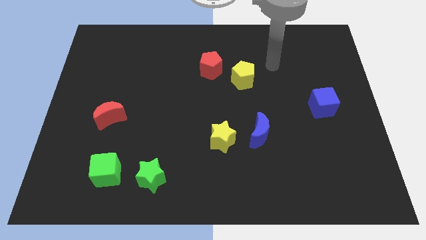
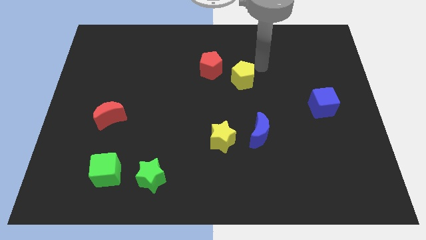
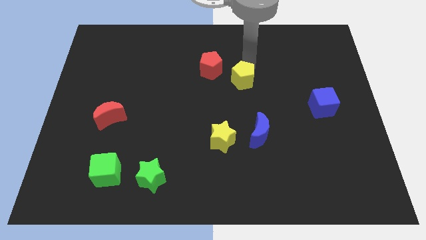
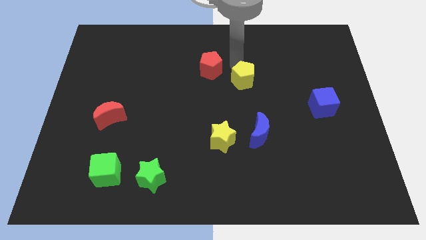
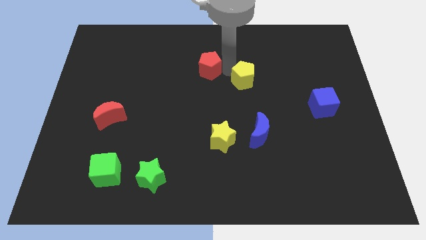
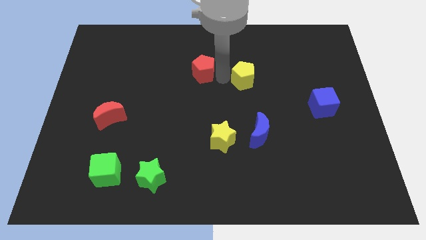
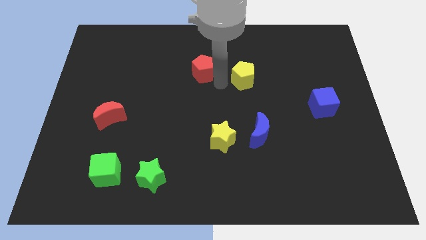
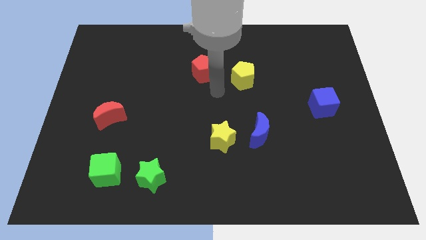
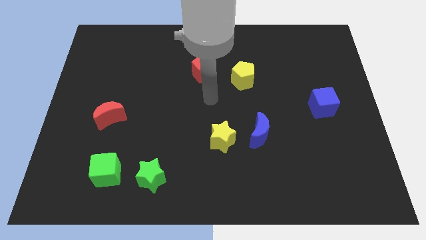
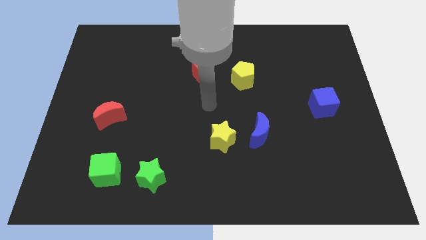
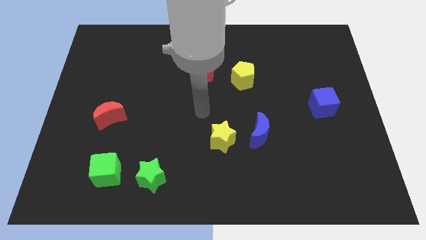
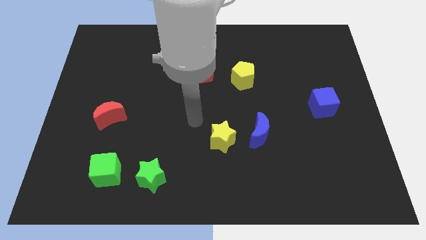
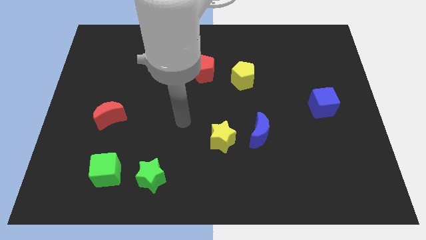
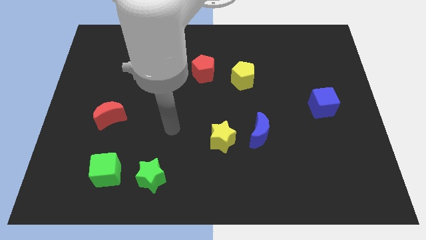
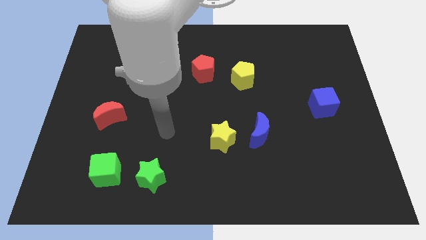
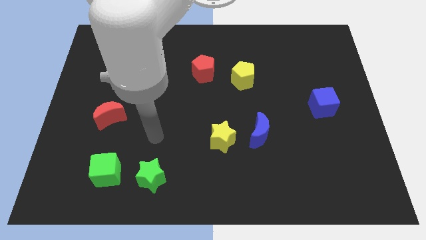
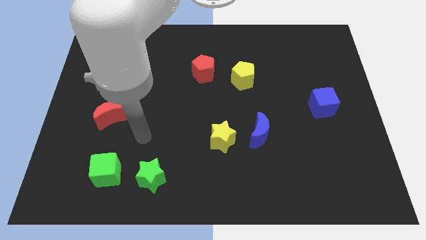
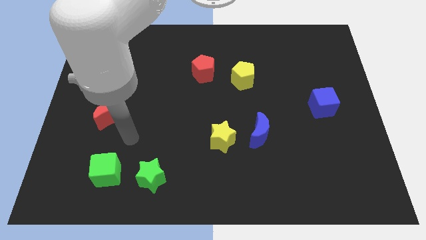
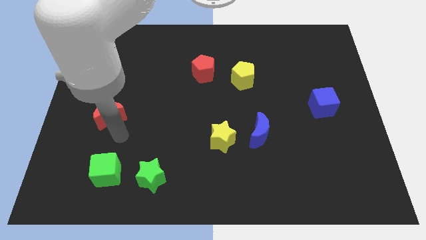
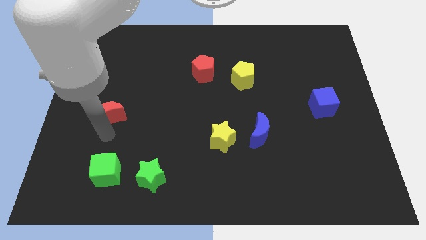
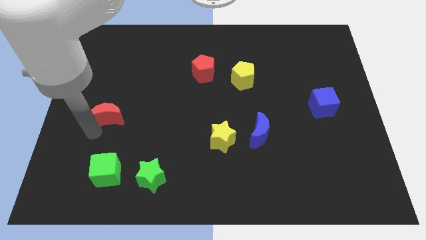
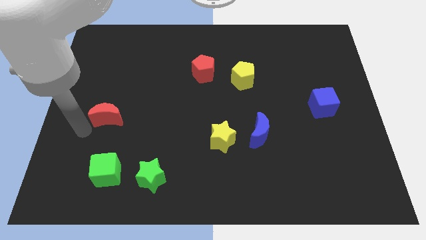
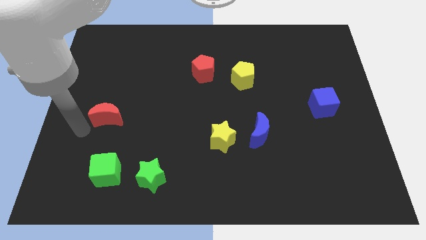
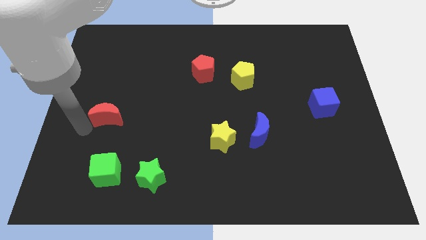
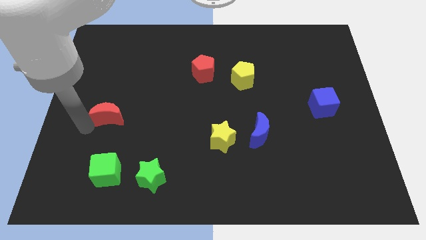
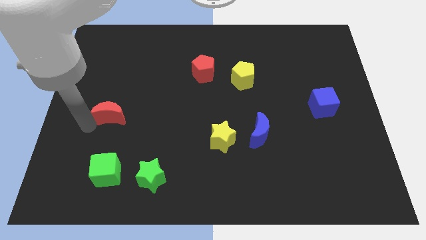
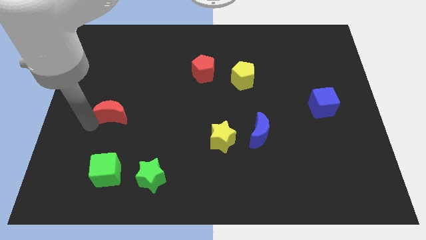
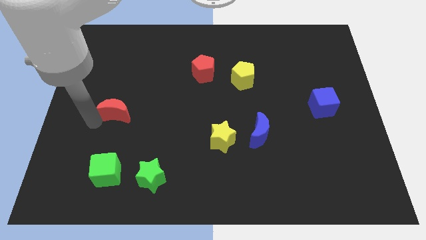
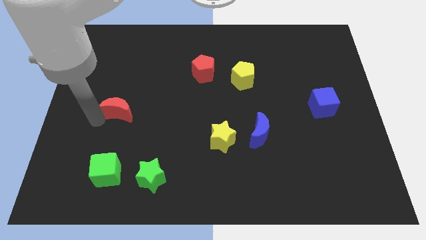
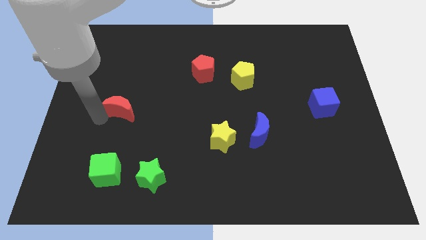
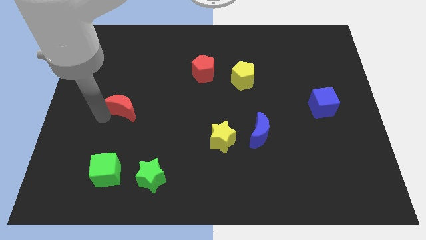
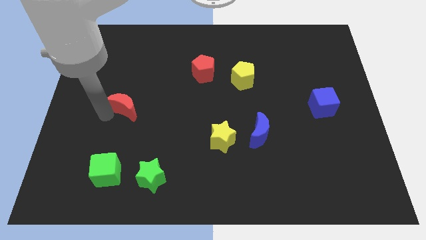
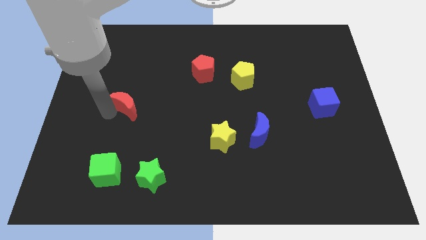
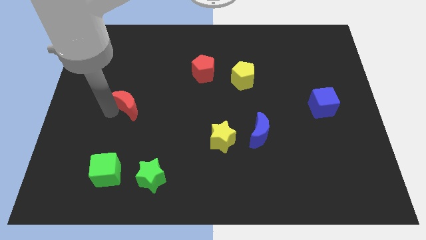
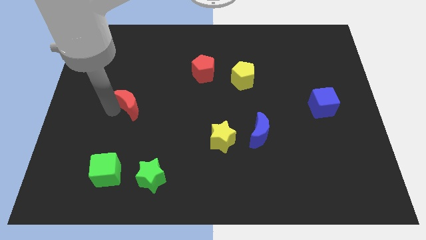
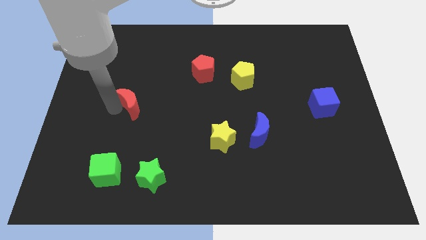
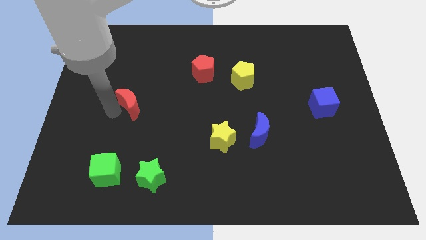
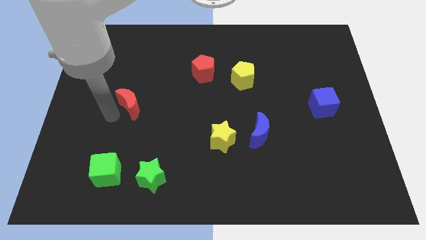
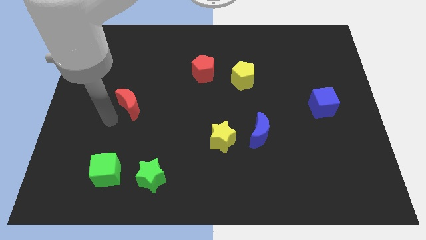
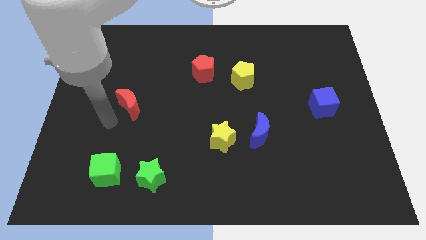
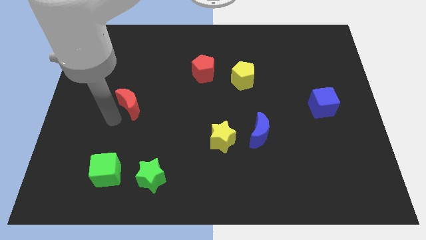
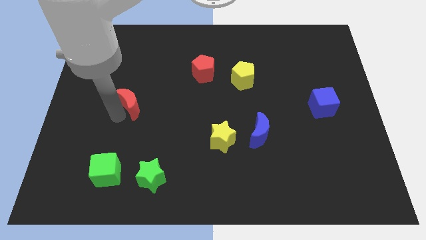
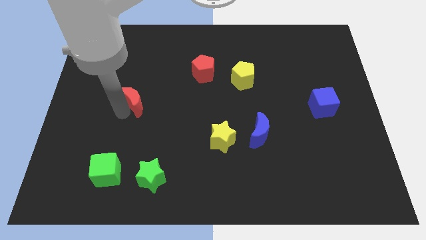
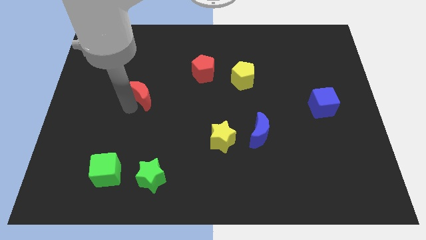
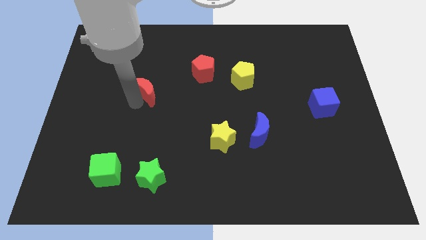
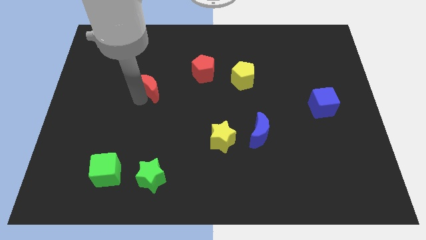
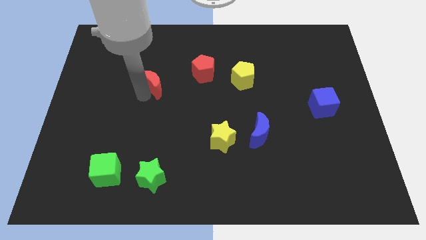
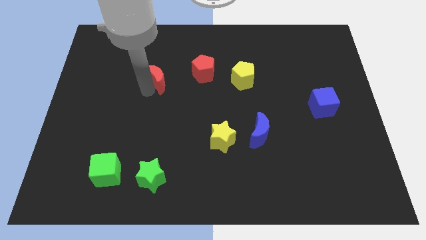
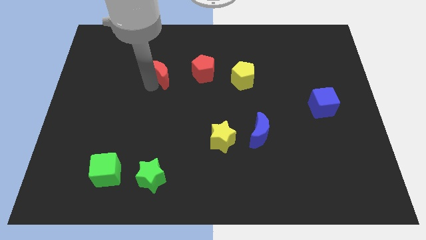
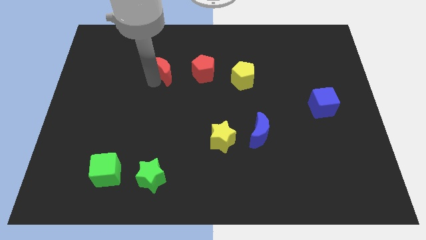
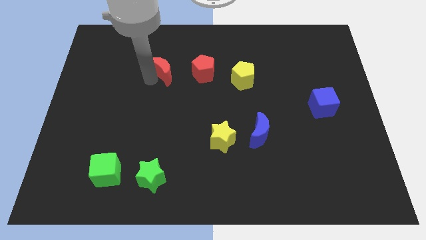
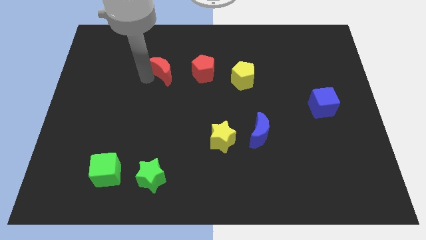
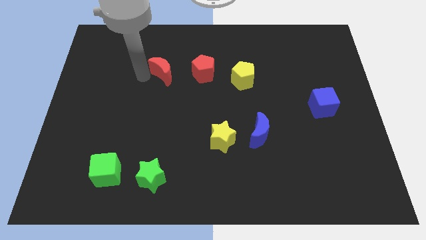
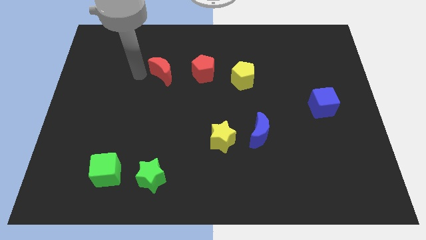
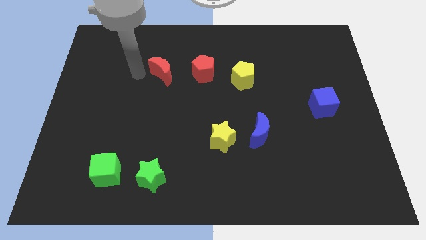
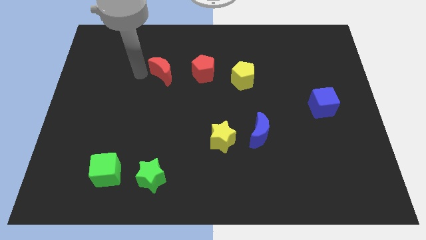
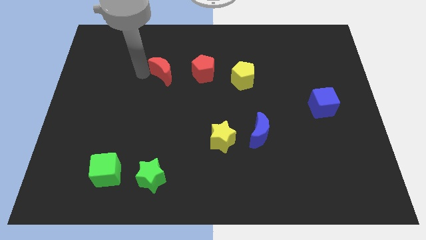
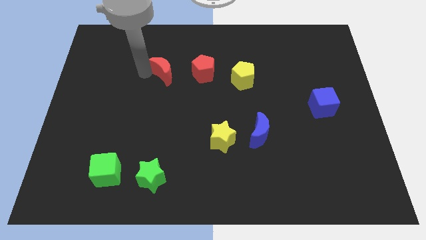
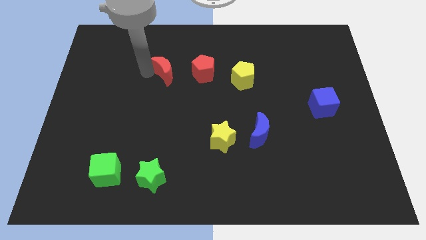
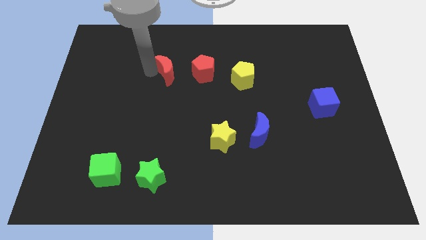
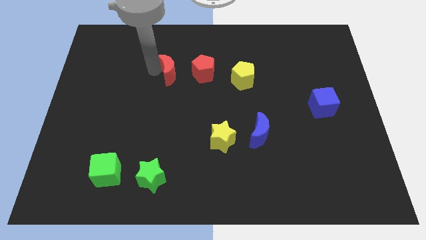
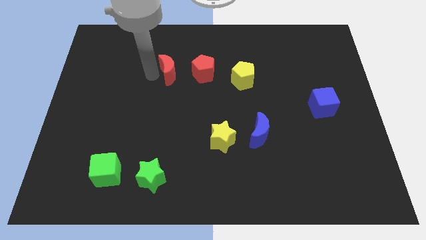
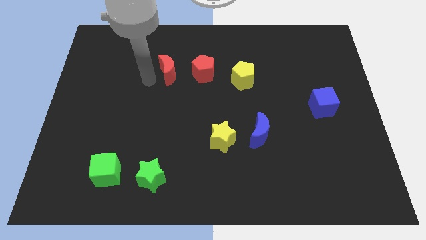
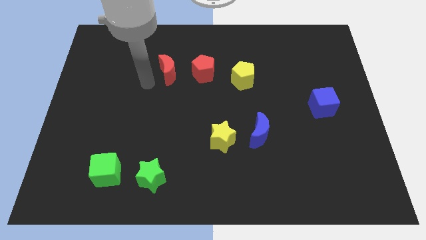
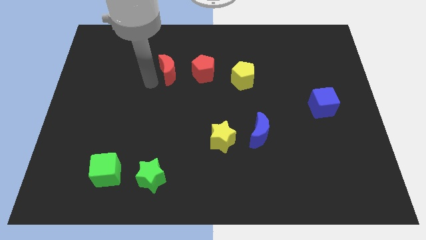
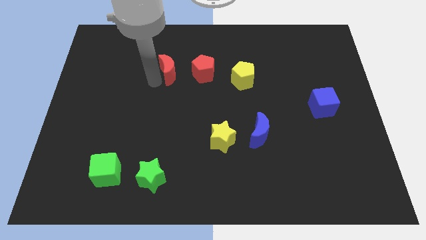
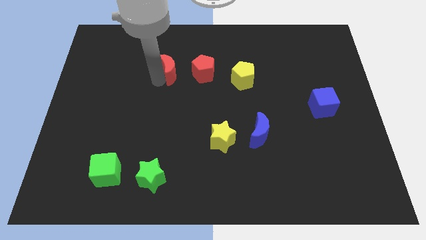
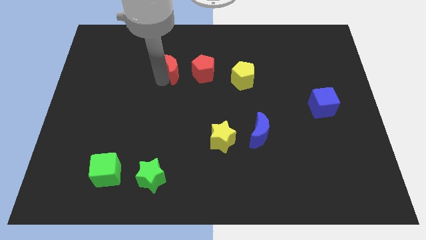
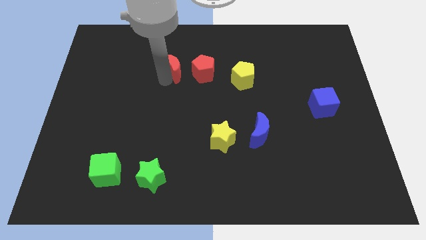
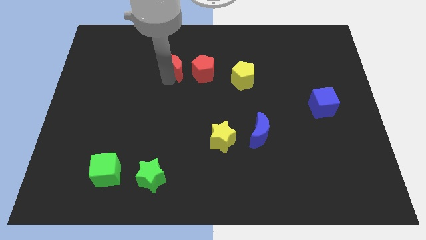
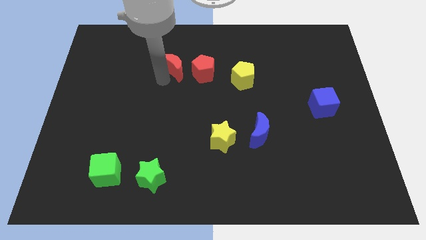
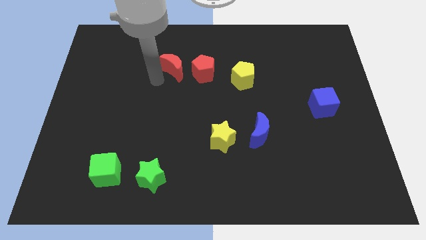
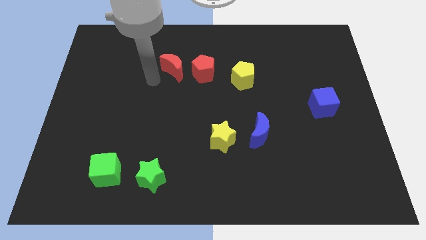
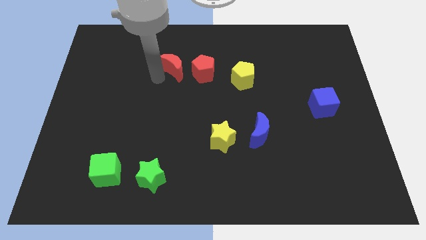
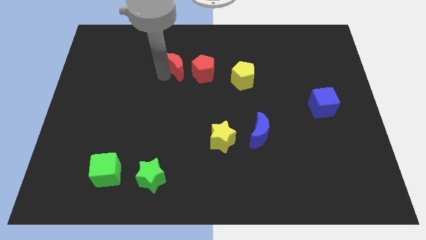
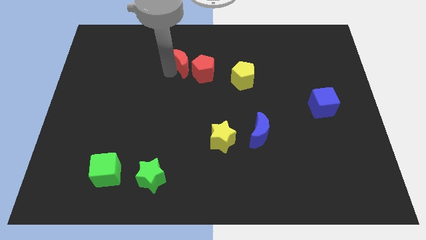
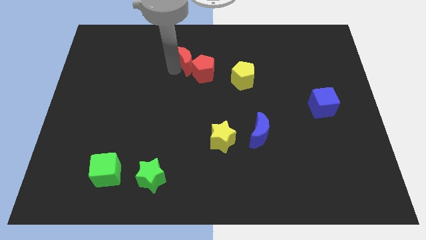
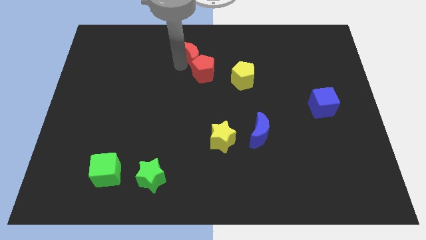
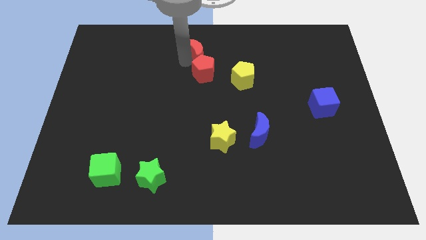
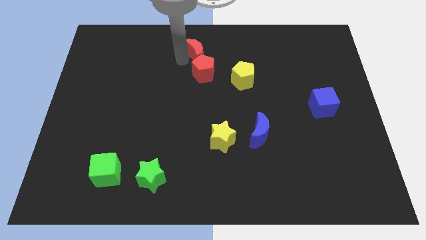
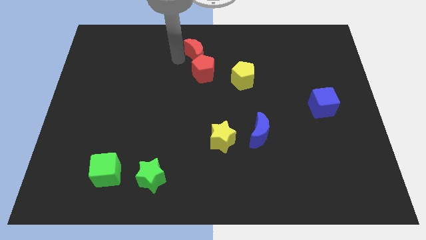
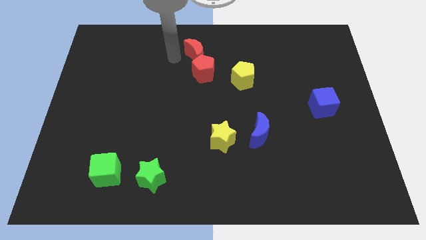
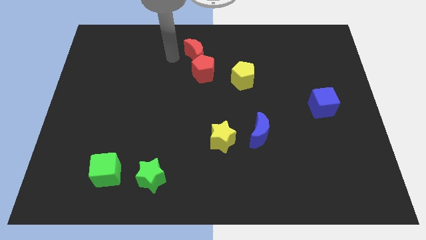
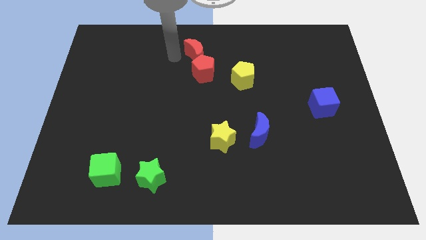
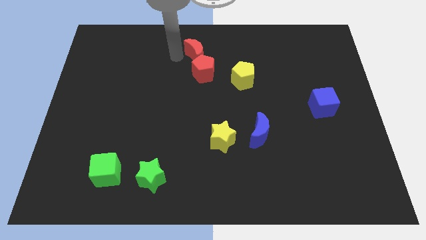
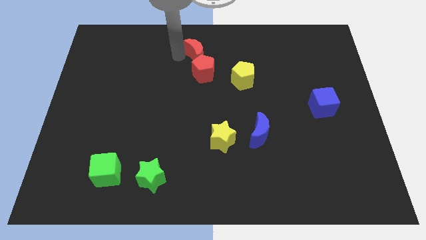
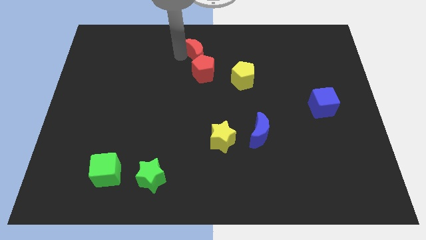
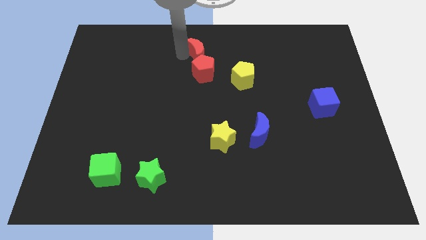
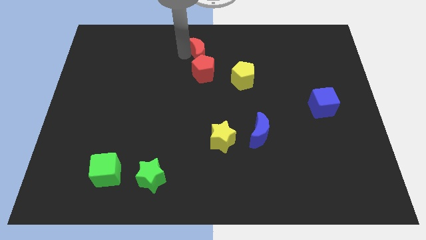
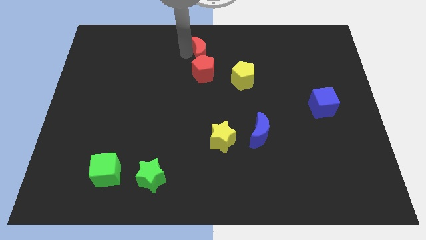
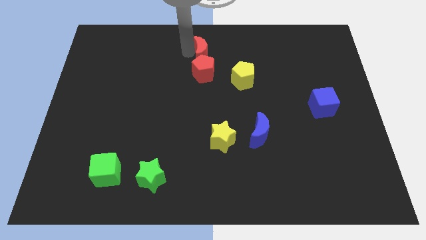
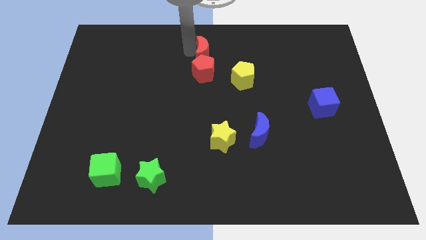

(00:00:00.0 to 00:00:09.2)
slide the red moon to the top right of the red pentagon
